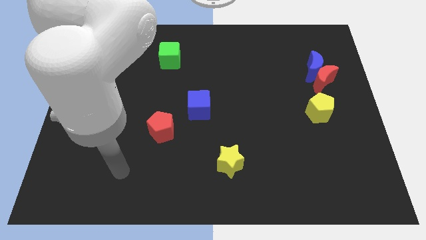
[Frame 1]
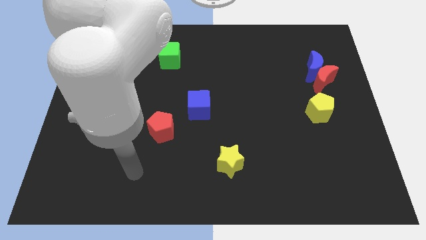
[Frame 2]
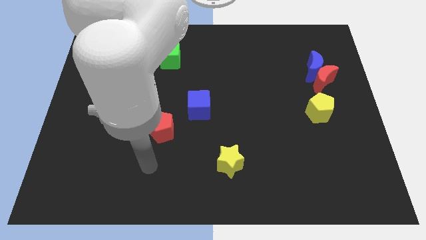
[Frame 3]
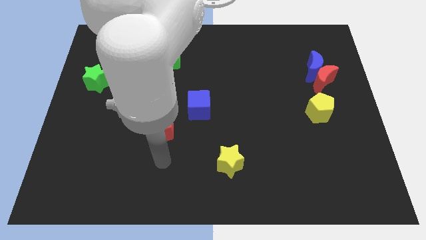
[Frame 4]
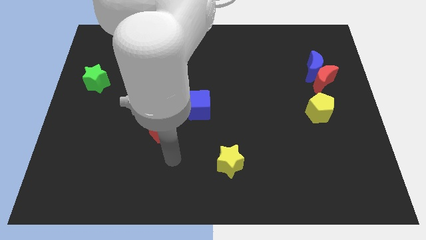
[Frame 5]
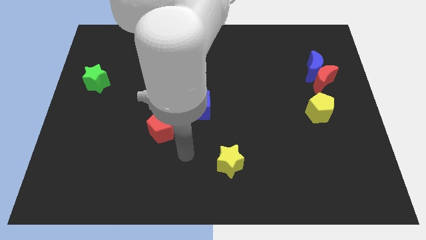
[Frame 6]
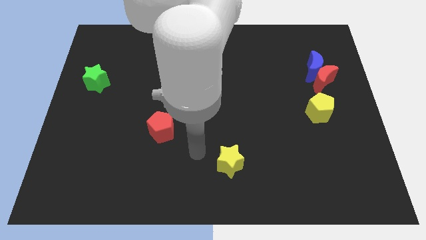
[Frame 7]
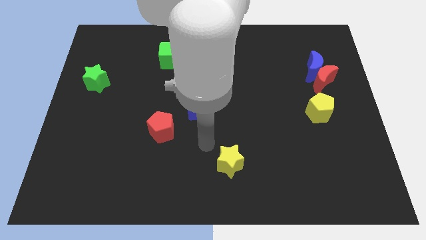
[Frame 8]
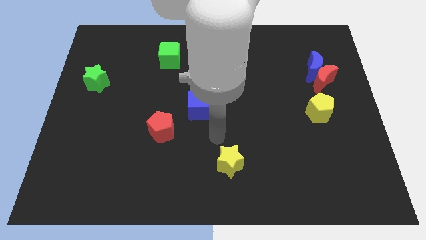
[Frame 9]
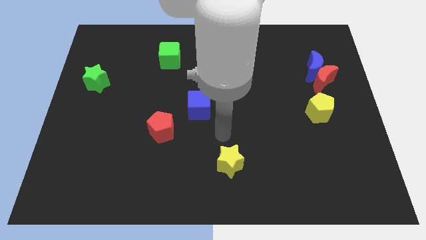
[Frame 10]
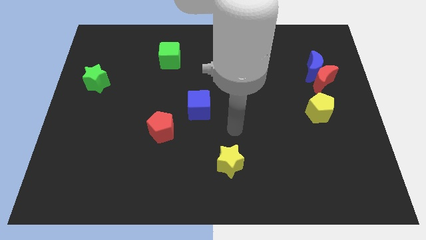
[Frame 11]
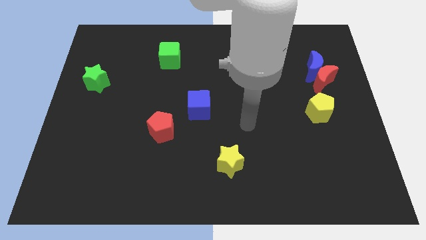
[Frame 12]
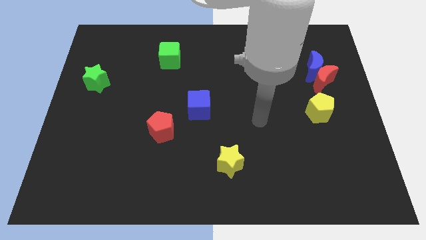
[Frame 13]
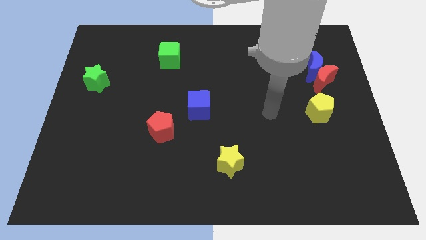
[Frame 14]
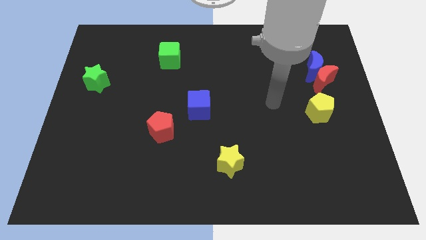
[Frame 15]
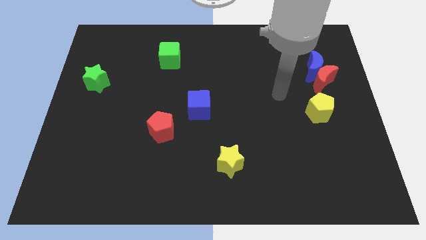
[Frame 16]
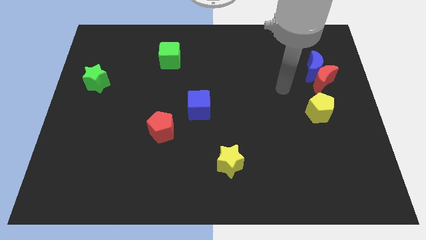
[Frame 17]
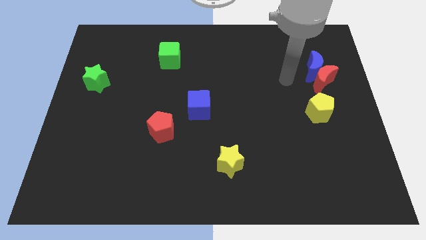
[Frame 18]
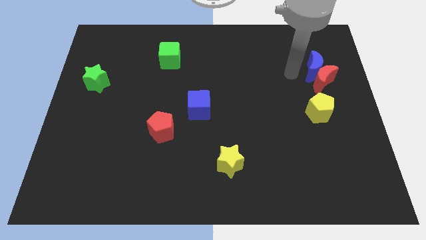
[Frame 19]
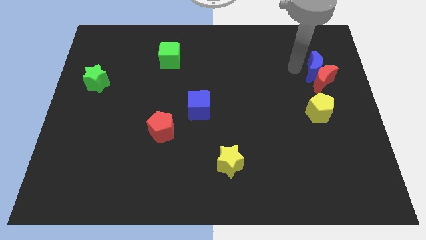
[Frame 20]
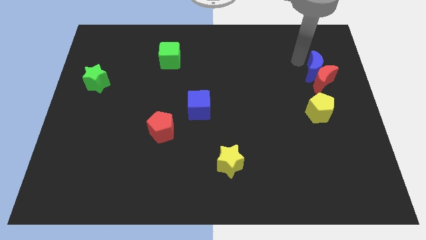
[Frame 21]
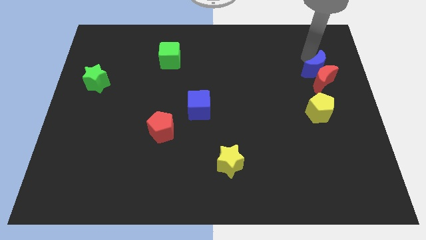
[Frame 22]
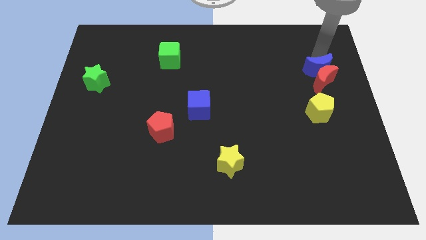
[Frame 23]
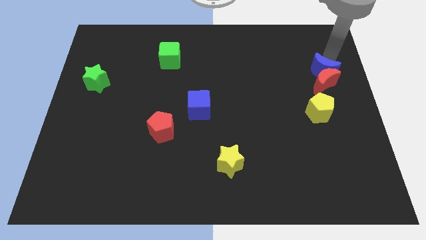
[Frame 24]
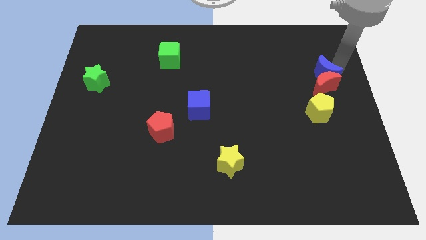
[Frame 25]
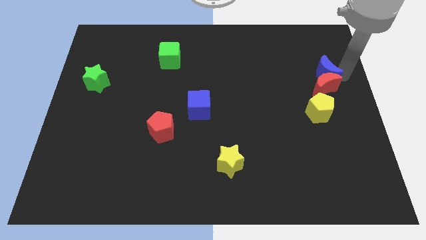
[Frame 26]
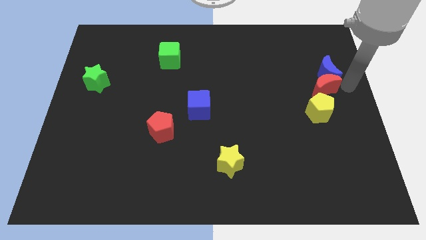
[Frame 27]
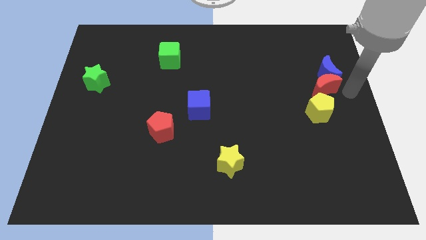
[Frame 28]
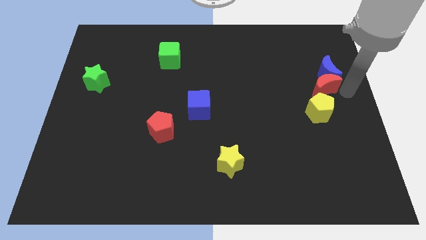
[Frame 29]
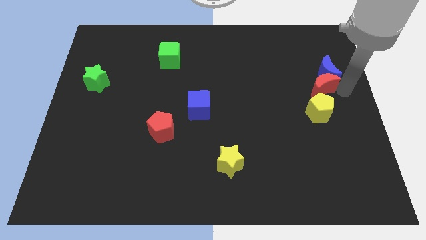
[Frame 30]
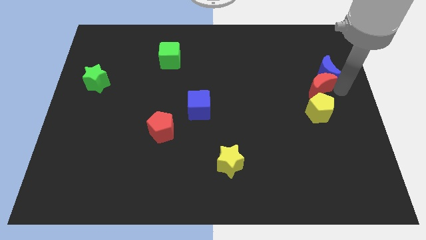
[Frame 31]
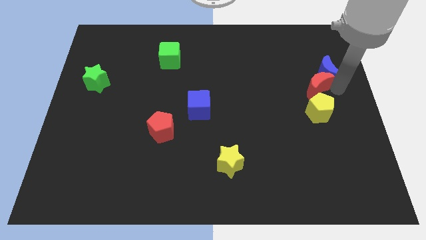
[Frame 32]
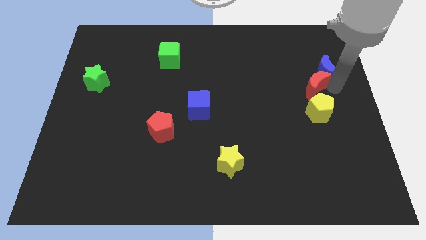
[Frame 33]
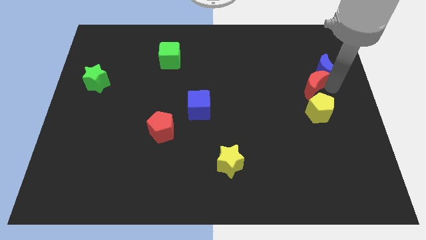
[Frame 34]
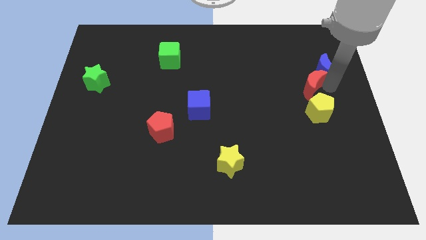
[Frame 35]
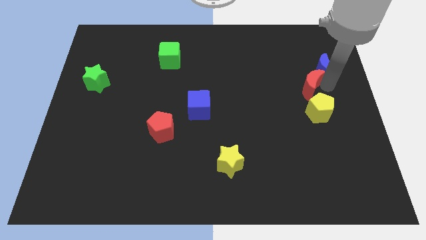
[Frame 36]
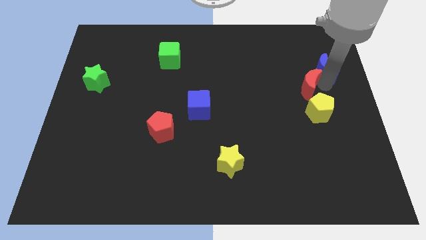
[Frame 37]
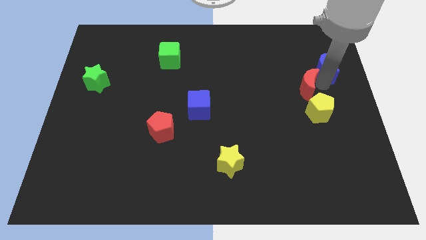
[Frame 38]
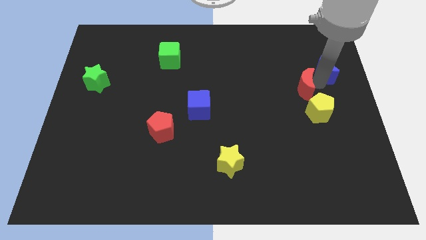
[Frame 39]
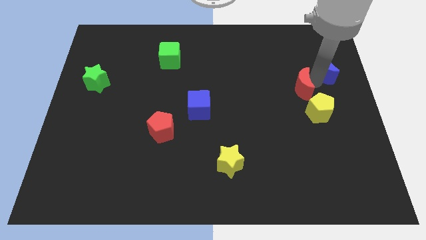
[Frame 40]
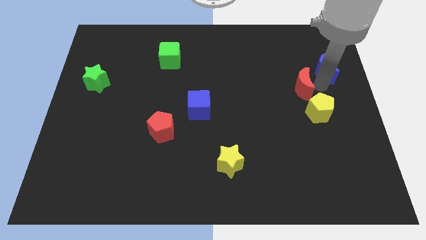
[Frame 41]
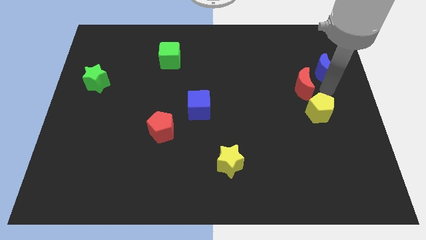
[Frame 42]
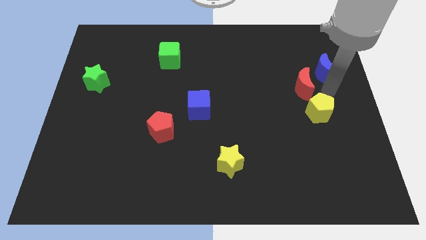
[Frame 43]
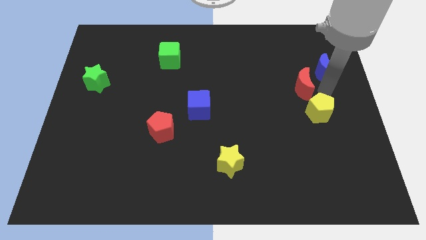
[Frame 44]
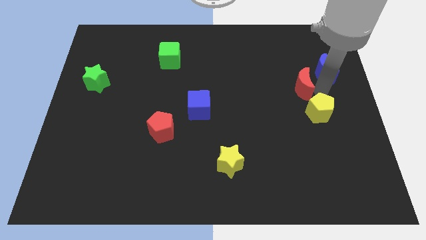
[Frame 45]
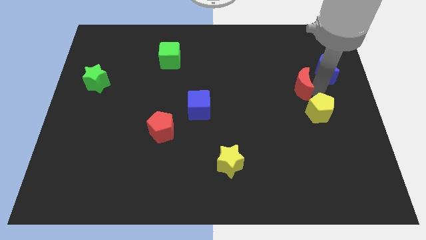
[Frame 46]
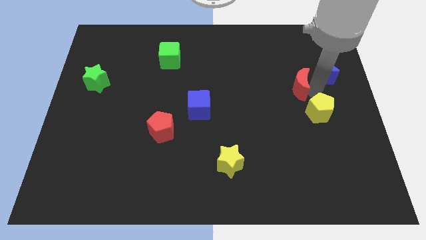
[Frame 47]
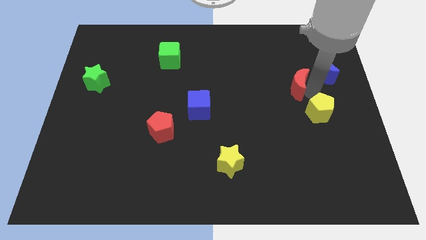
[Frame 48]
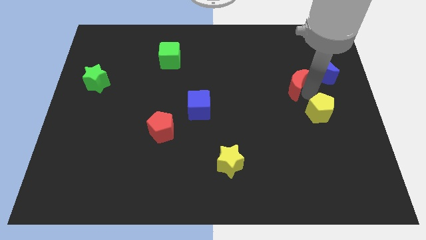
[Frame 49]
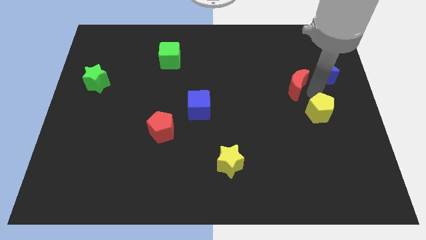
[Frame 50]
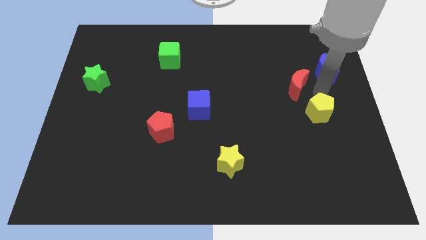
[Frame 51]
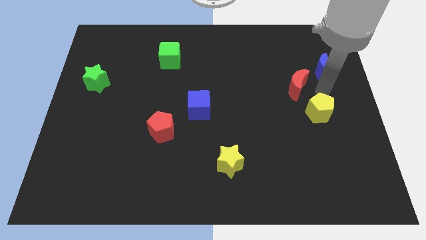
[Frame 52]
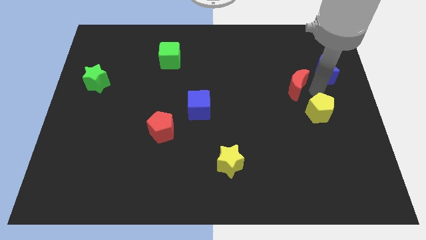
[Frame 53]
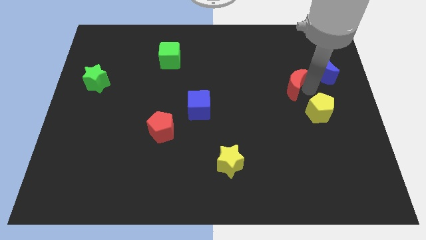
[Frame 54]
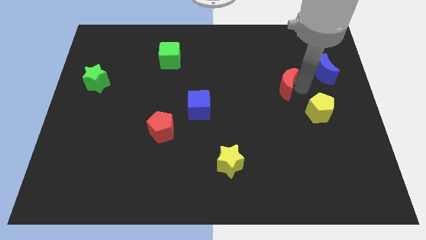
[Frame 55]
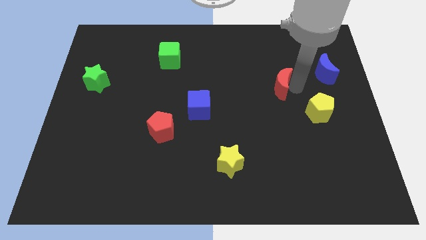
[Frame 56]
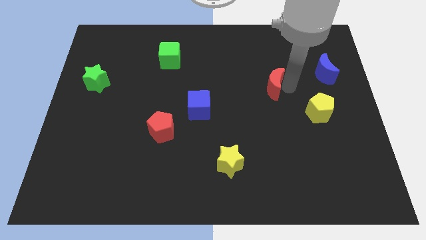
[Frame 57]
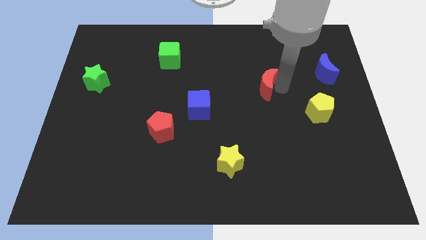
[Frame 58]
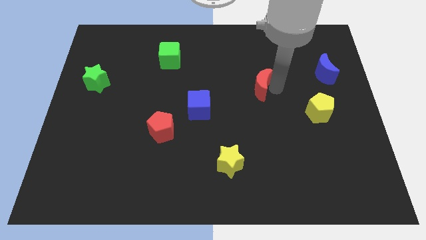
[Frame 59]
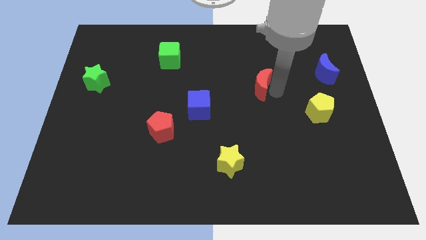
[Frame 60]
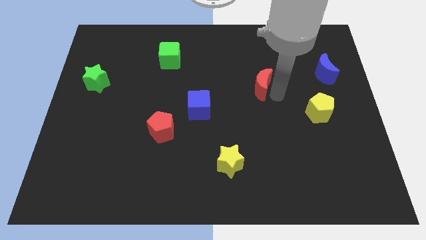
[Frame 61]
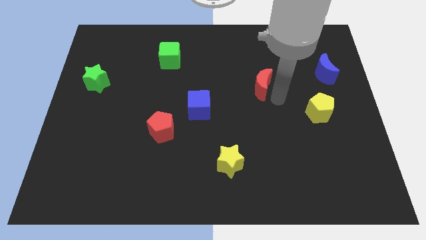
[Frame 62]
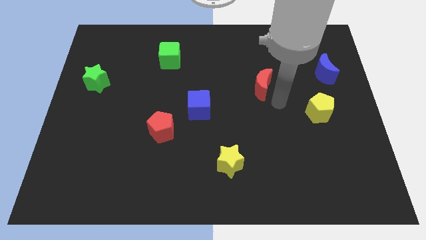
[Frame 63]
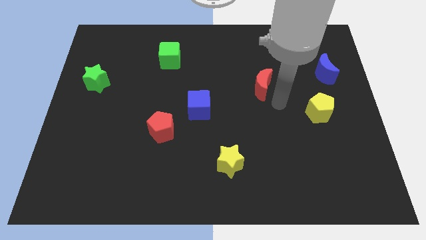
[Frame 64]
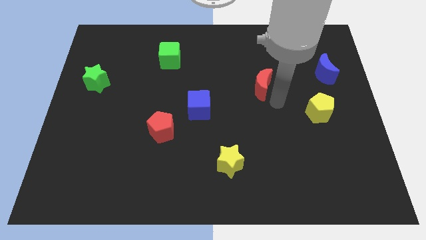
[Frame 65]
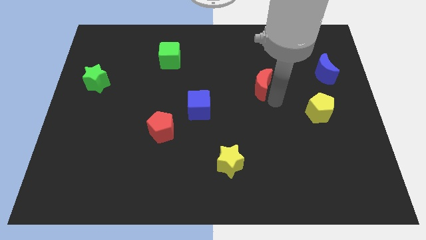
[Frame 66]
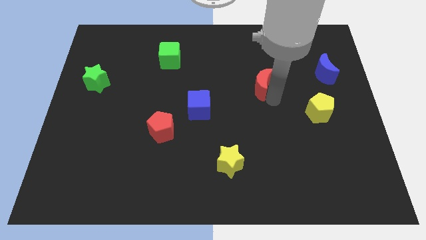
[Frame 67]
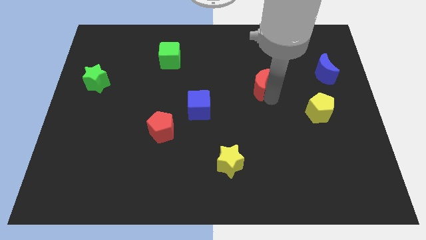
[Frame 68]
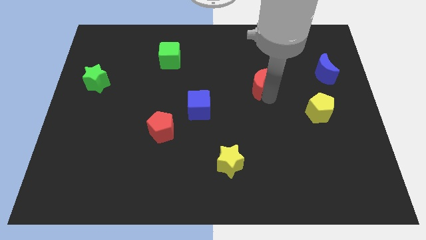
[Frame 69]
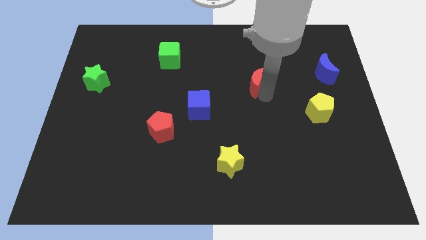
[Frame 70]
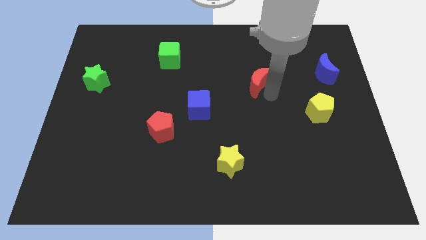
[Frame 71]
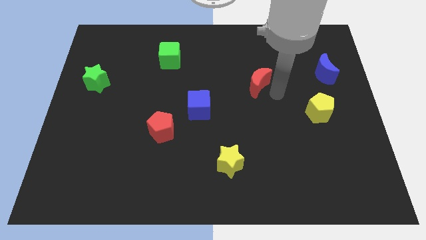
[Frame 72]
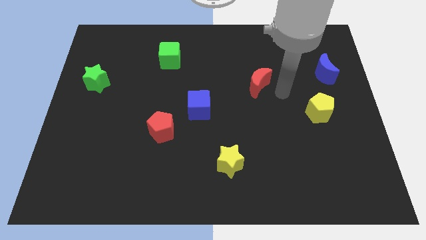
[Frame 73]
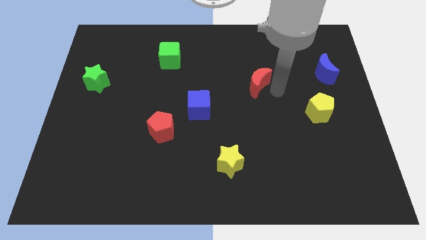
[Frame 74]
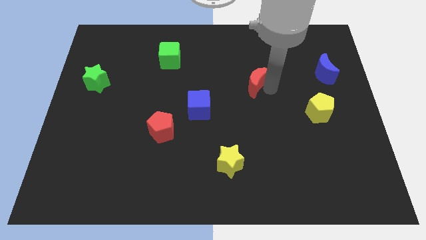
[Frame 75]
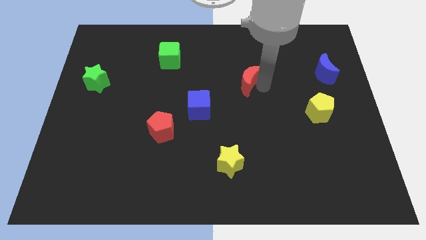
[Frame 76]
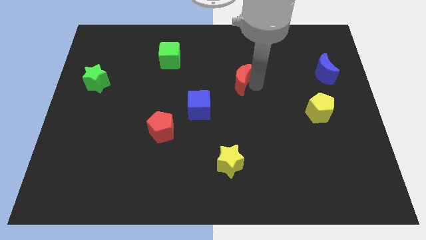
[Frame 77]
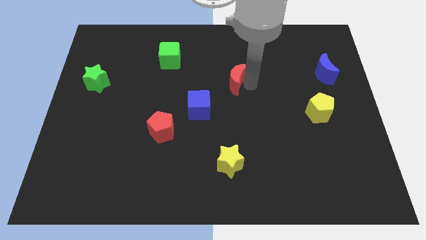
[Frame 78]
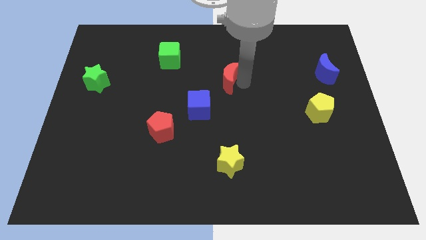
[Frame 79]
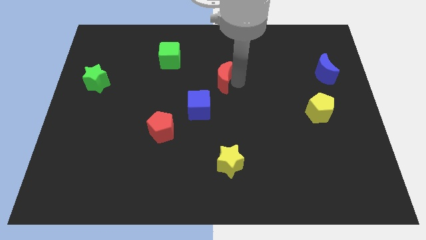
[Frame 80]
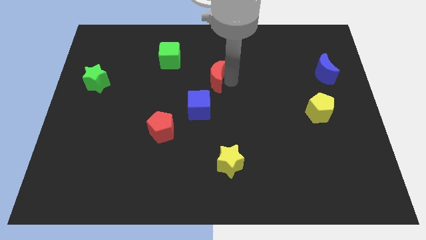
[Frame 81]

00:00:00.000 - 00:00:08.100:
move the red moon to the top side of the blue cube
